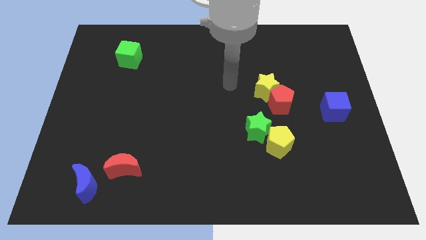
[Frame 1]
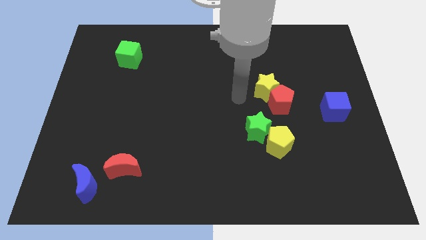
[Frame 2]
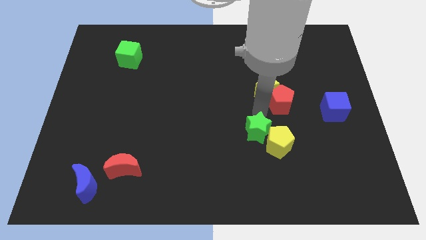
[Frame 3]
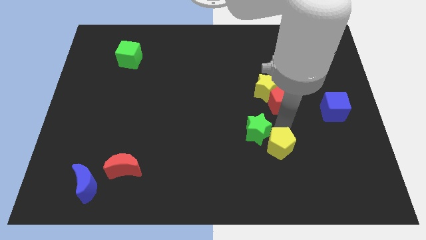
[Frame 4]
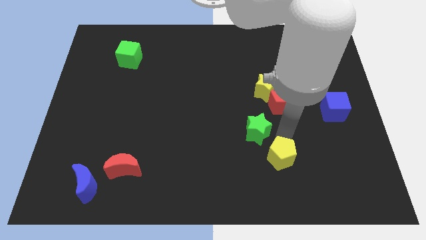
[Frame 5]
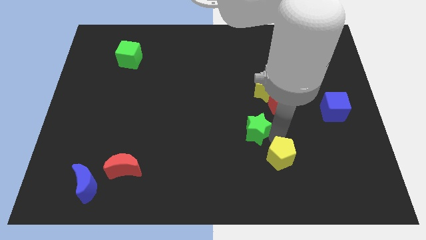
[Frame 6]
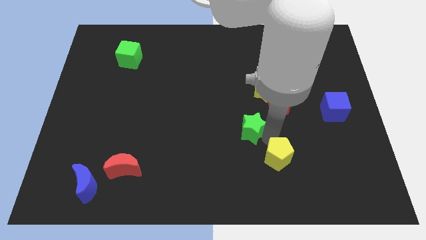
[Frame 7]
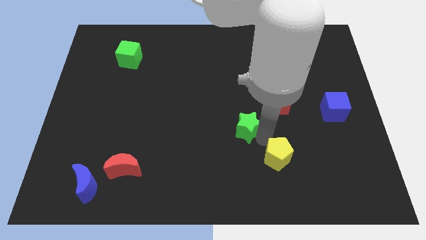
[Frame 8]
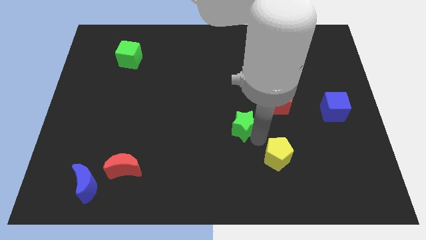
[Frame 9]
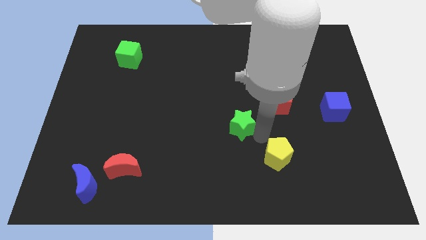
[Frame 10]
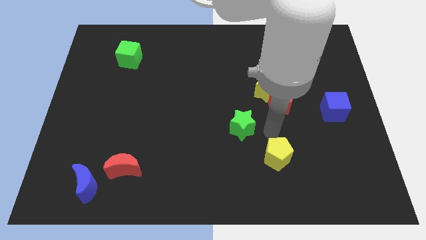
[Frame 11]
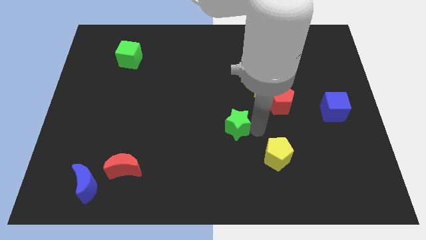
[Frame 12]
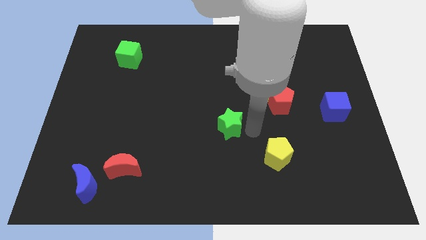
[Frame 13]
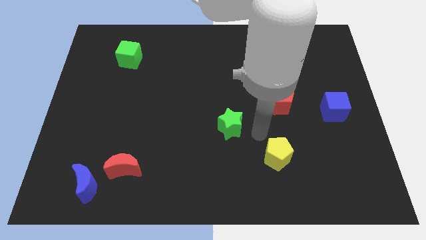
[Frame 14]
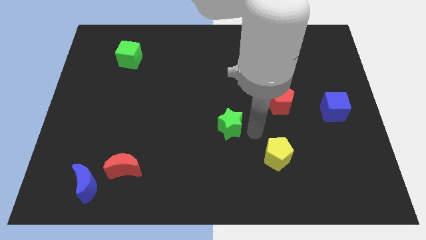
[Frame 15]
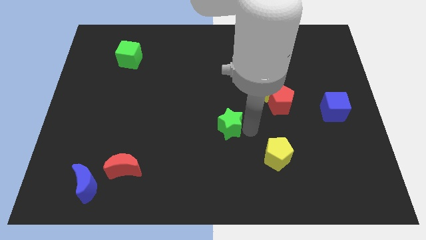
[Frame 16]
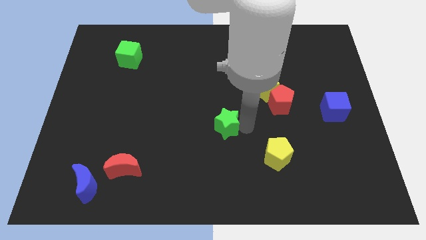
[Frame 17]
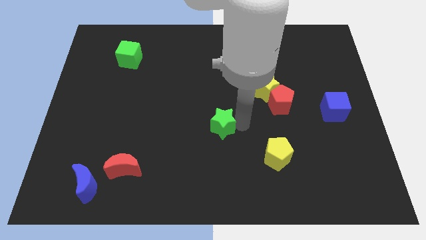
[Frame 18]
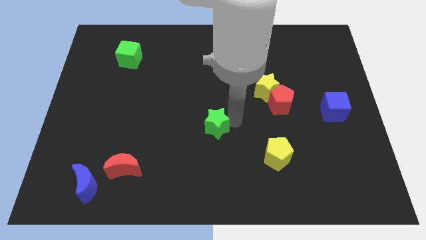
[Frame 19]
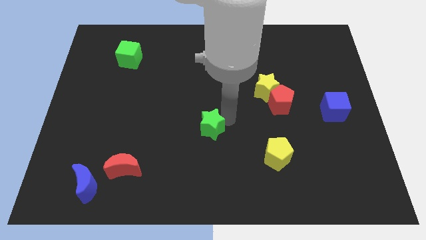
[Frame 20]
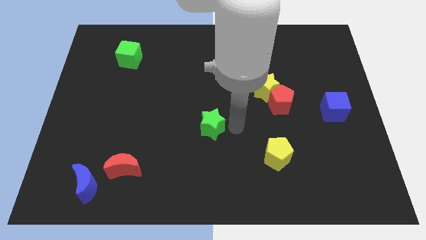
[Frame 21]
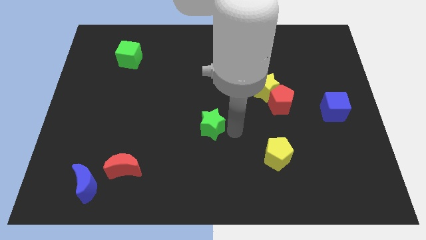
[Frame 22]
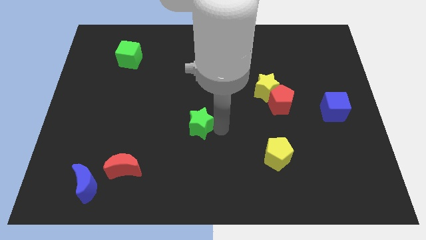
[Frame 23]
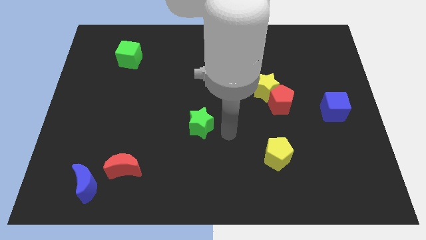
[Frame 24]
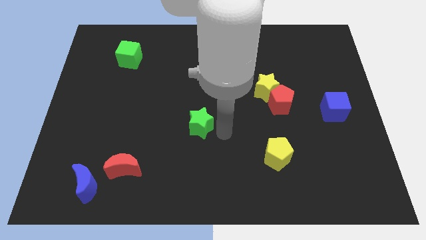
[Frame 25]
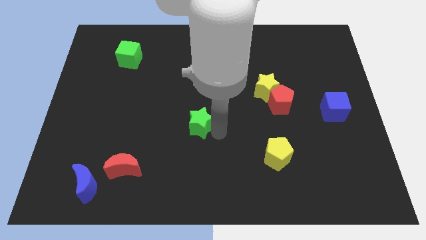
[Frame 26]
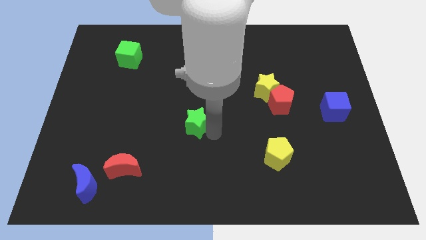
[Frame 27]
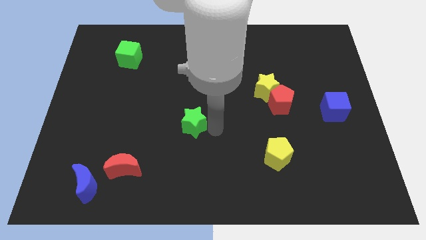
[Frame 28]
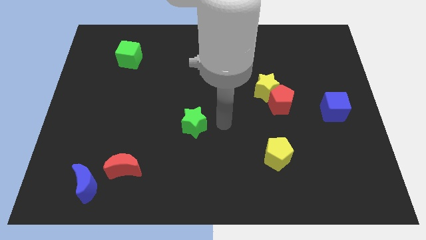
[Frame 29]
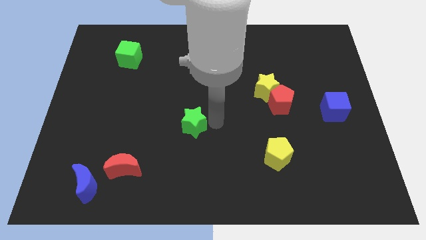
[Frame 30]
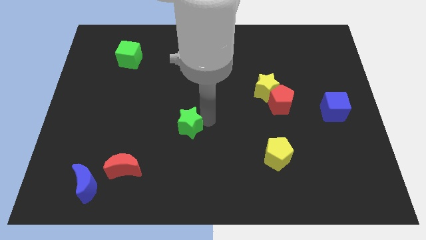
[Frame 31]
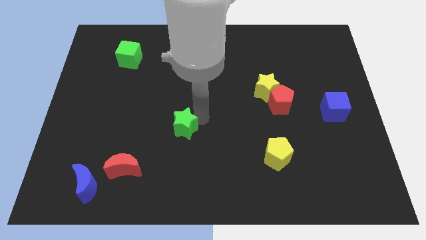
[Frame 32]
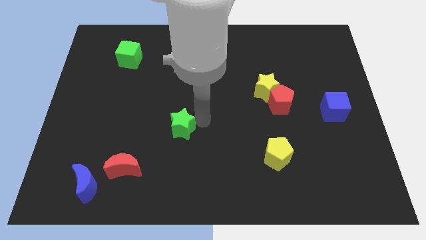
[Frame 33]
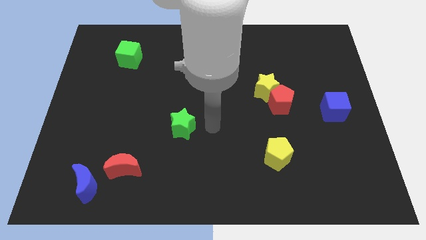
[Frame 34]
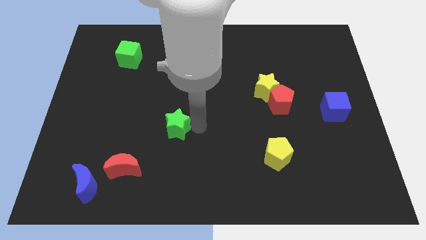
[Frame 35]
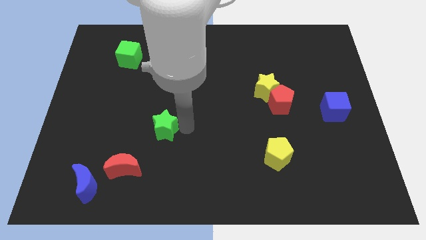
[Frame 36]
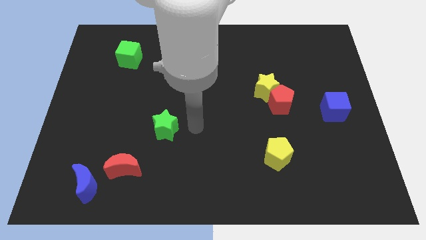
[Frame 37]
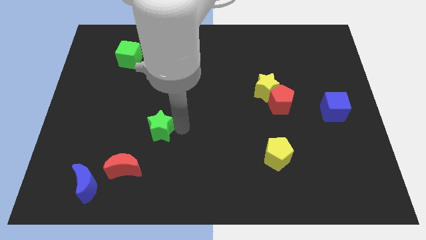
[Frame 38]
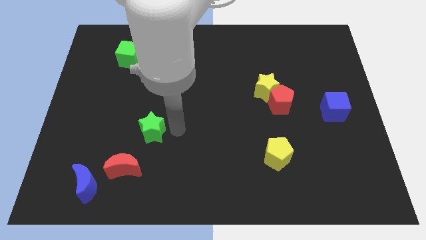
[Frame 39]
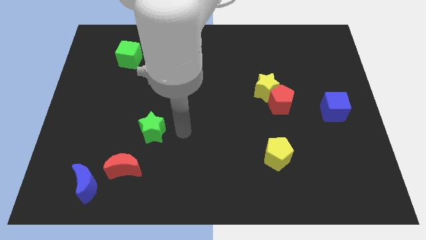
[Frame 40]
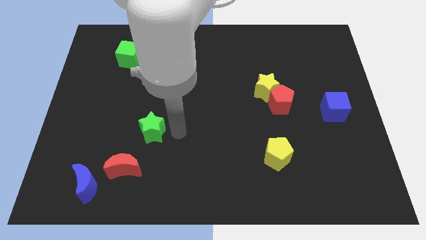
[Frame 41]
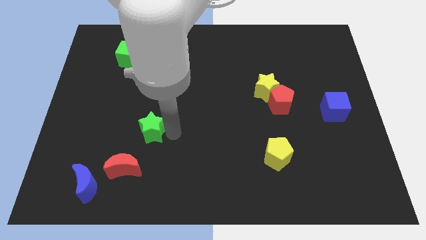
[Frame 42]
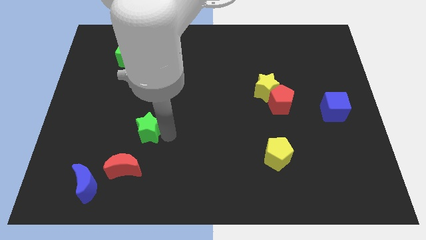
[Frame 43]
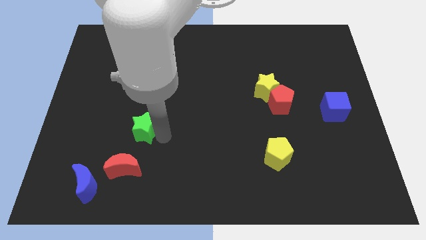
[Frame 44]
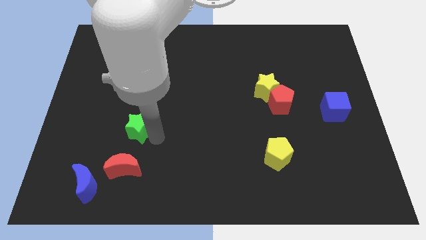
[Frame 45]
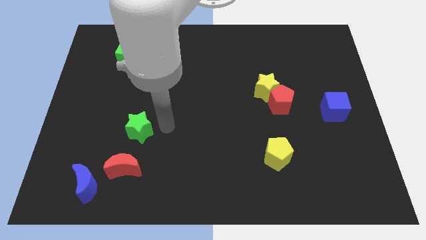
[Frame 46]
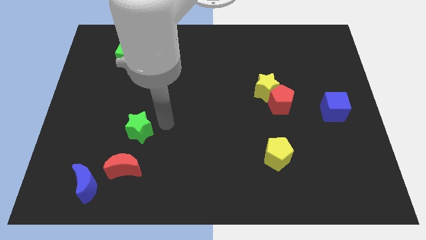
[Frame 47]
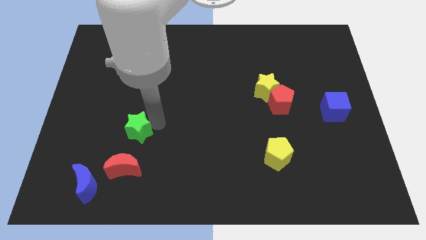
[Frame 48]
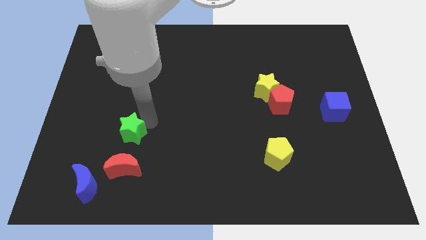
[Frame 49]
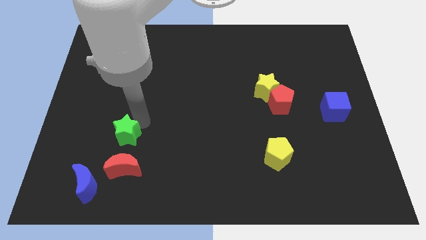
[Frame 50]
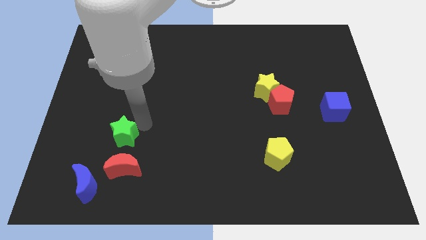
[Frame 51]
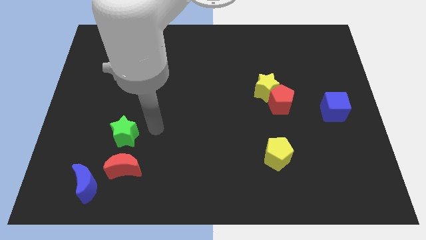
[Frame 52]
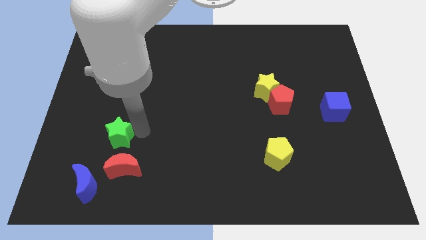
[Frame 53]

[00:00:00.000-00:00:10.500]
move the green star above the blue moon

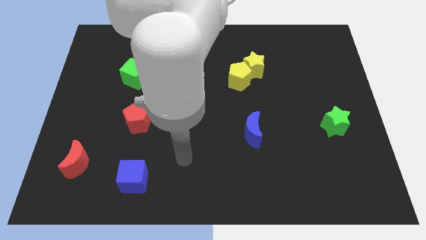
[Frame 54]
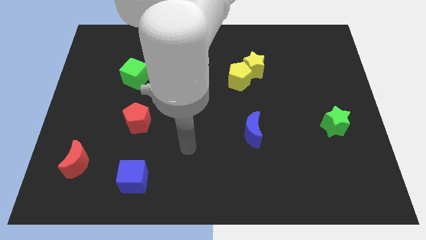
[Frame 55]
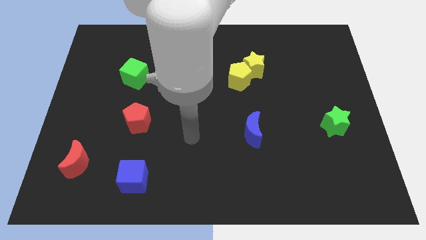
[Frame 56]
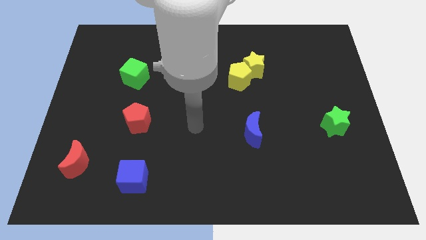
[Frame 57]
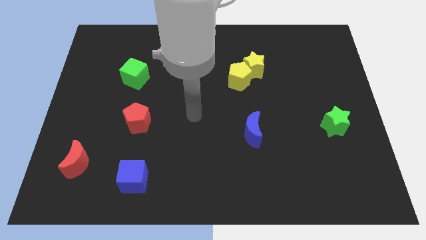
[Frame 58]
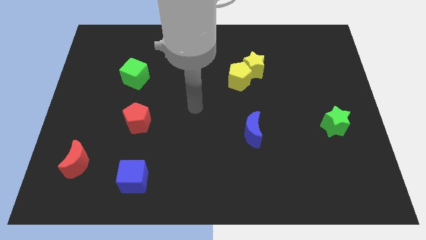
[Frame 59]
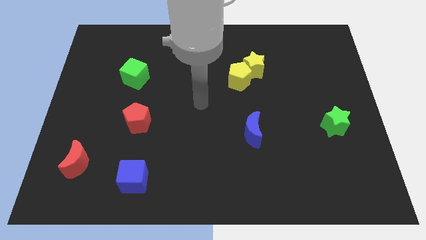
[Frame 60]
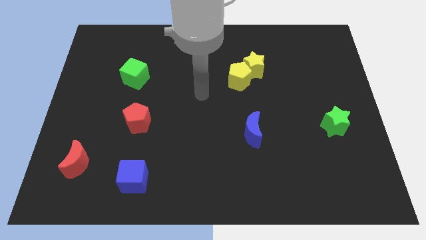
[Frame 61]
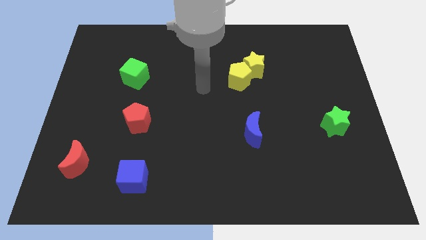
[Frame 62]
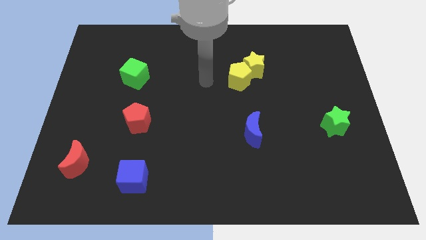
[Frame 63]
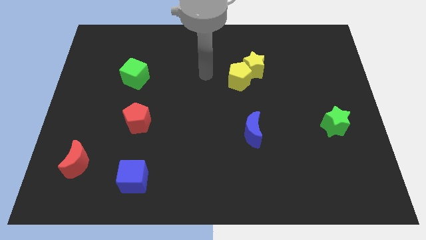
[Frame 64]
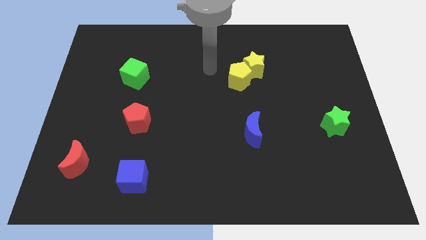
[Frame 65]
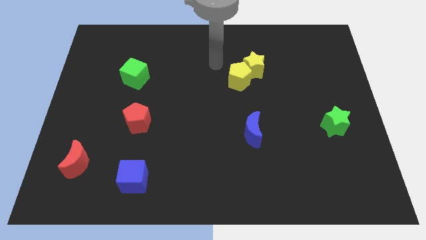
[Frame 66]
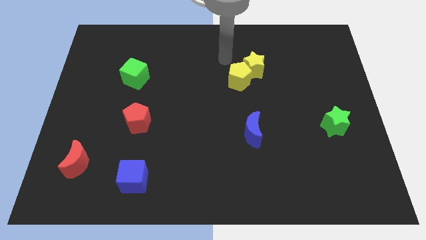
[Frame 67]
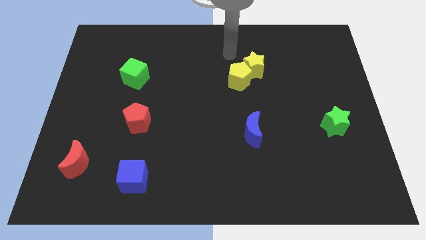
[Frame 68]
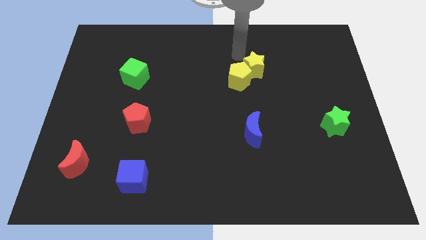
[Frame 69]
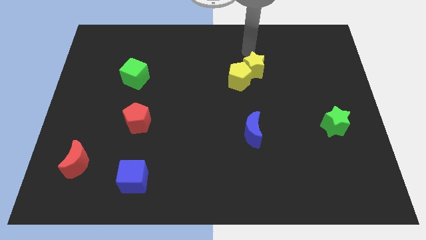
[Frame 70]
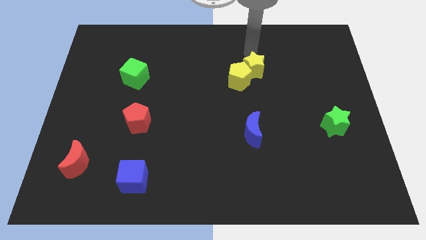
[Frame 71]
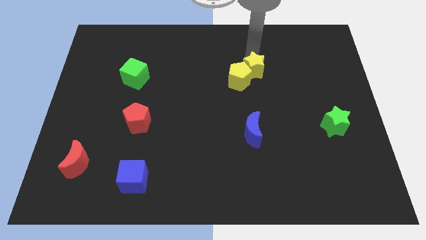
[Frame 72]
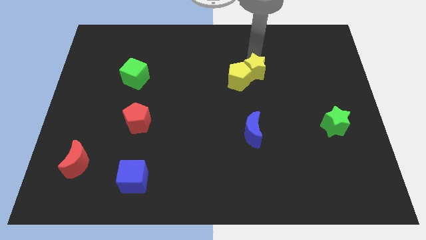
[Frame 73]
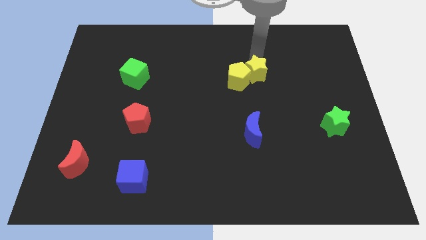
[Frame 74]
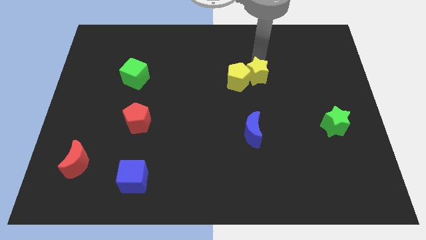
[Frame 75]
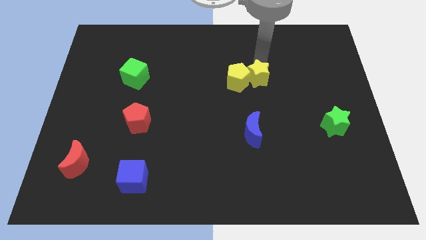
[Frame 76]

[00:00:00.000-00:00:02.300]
put the yellow star to the bottom right of the yellow pentagon
